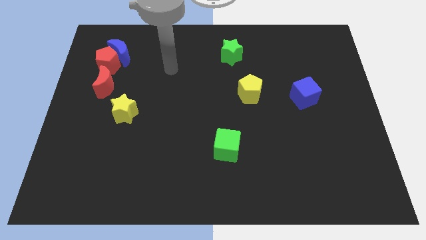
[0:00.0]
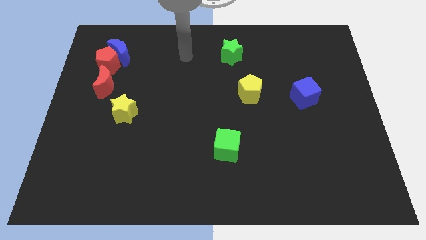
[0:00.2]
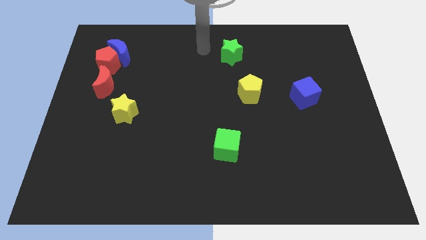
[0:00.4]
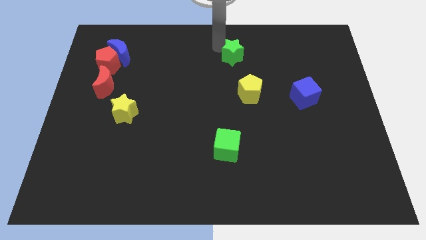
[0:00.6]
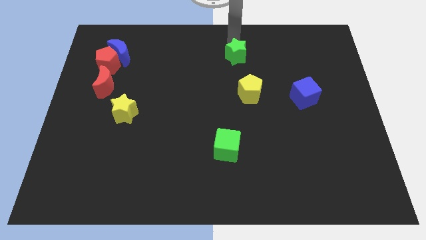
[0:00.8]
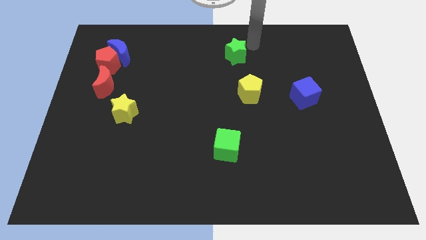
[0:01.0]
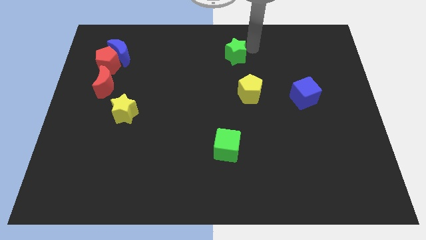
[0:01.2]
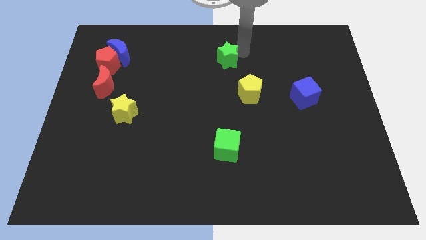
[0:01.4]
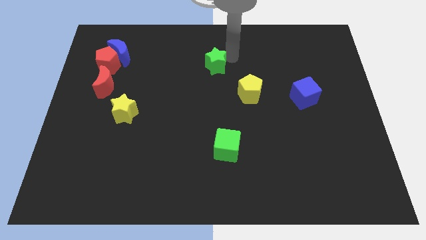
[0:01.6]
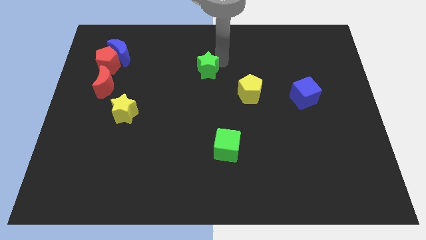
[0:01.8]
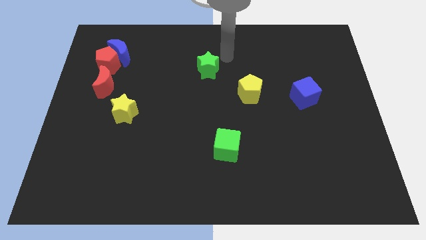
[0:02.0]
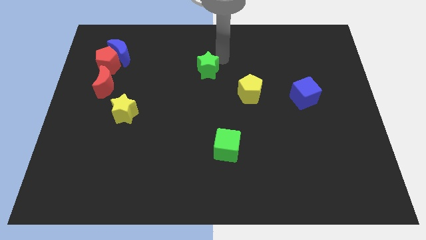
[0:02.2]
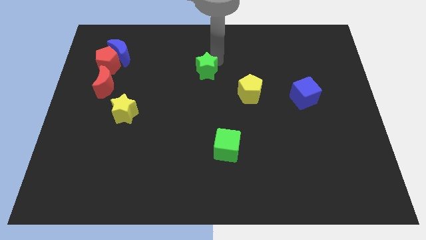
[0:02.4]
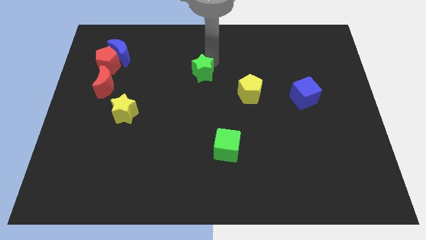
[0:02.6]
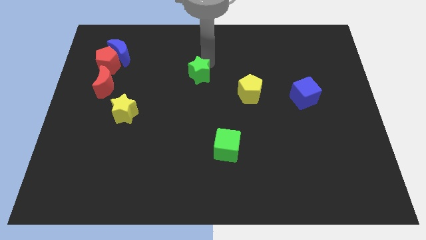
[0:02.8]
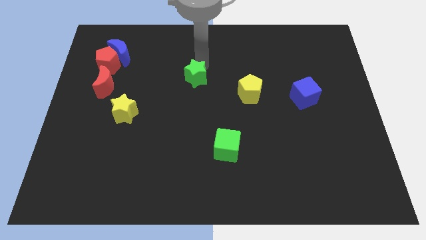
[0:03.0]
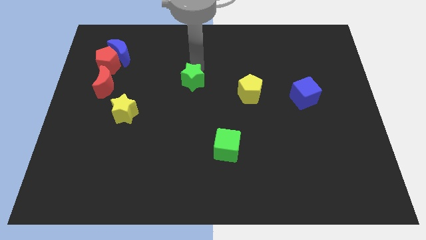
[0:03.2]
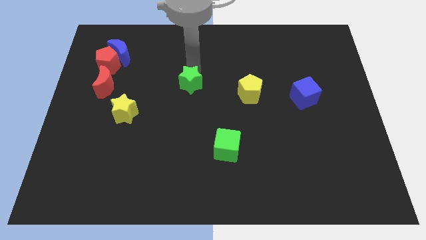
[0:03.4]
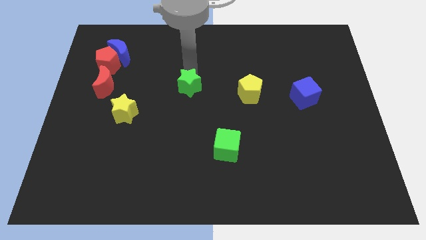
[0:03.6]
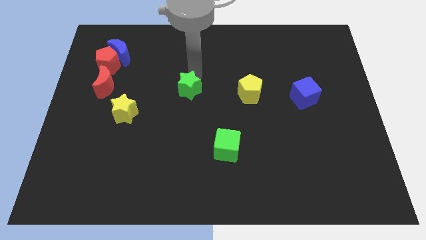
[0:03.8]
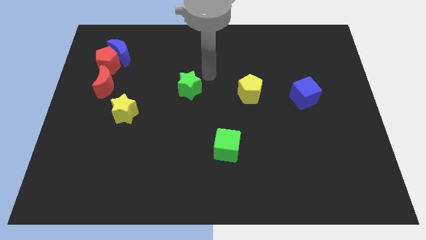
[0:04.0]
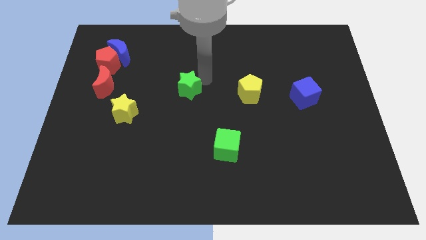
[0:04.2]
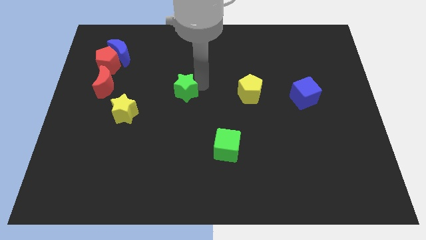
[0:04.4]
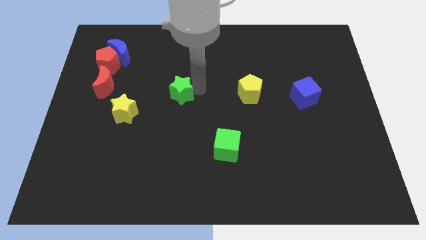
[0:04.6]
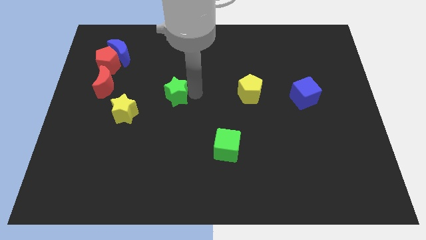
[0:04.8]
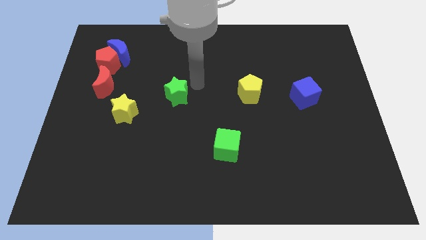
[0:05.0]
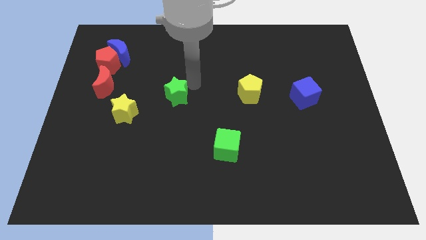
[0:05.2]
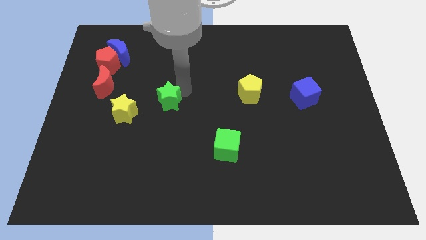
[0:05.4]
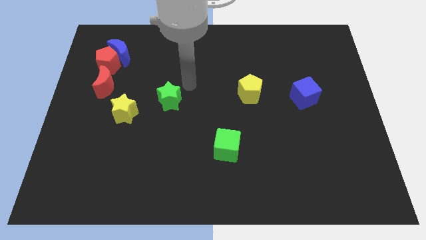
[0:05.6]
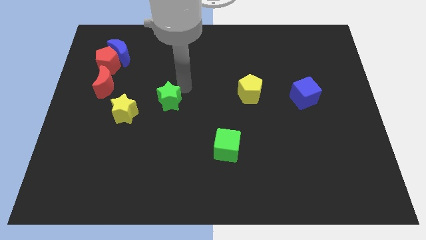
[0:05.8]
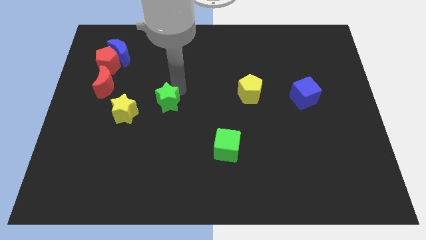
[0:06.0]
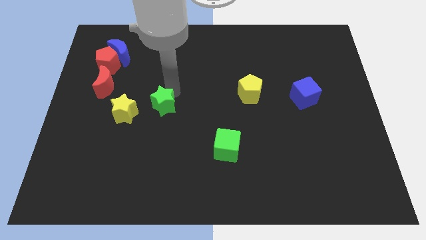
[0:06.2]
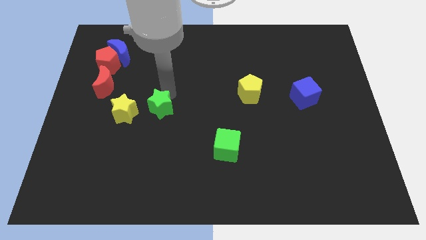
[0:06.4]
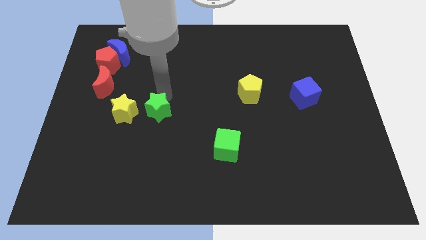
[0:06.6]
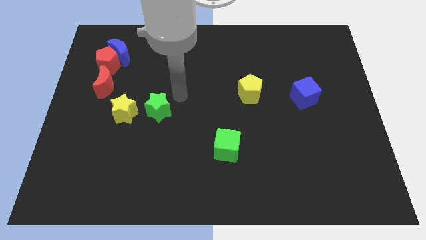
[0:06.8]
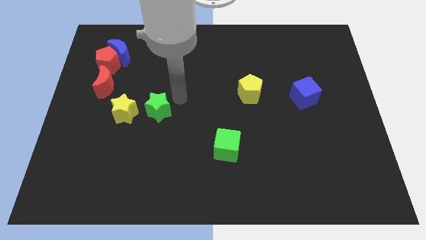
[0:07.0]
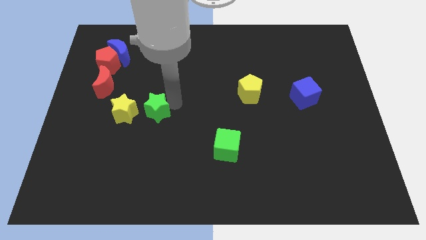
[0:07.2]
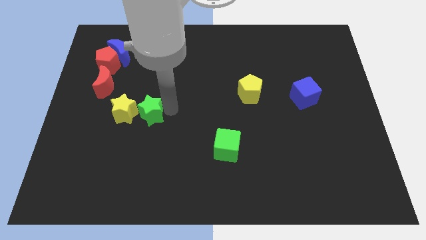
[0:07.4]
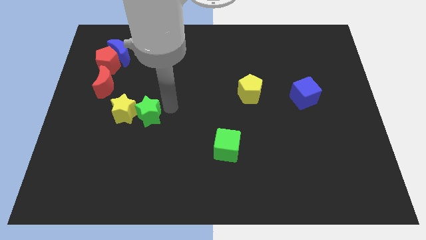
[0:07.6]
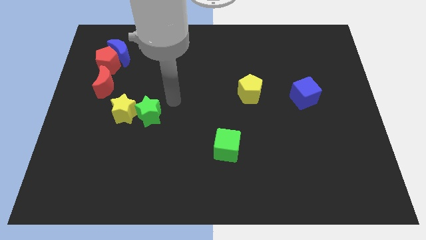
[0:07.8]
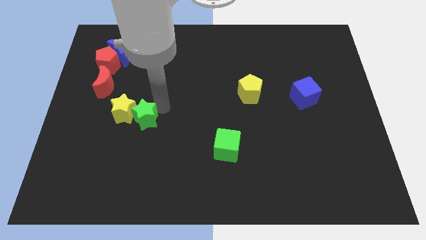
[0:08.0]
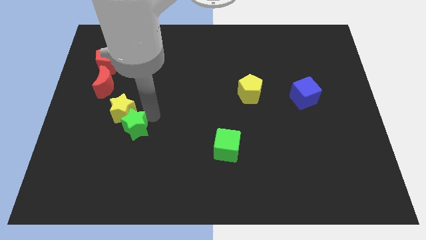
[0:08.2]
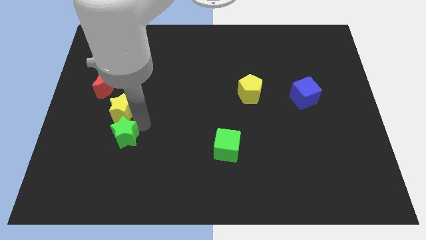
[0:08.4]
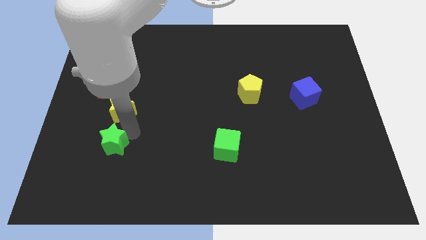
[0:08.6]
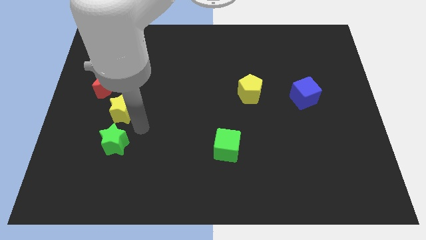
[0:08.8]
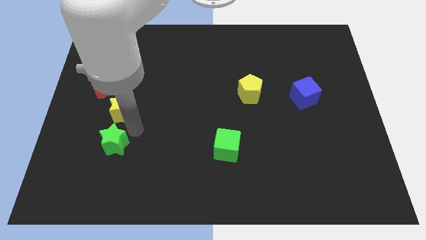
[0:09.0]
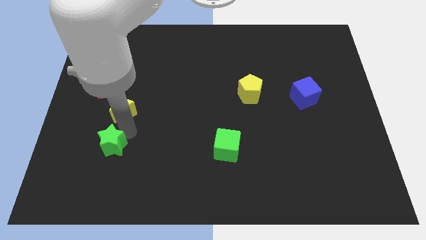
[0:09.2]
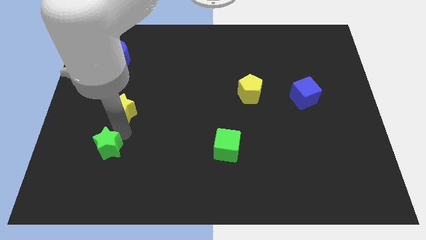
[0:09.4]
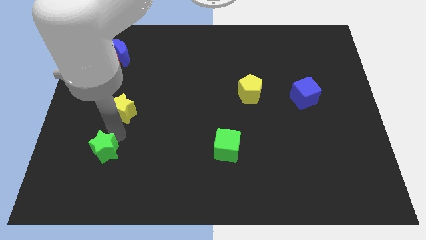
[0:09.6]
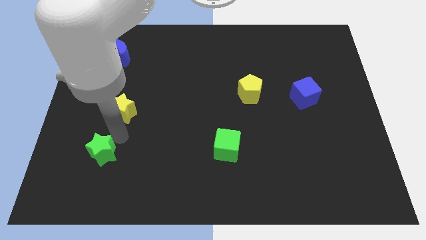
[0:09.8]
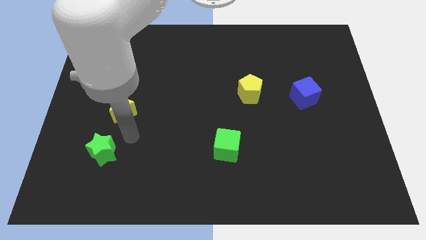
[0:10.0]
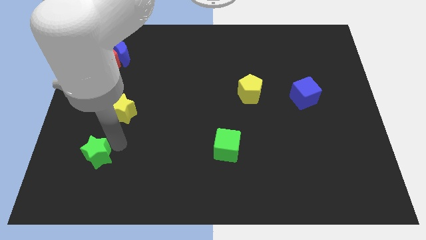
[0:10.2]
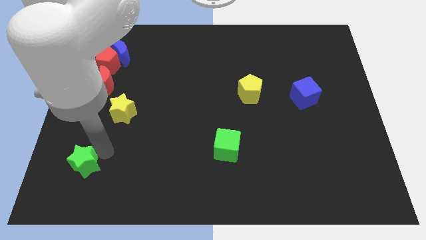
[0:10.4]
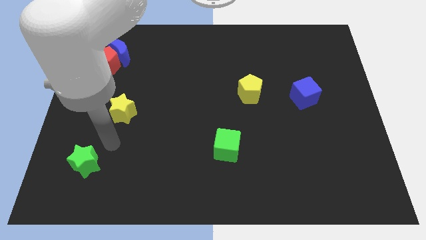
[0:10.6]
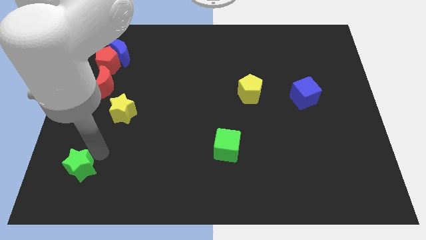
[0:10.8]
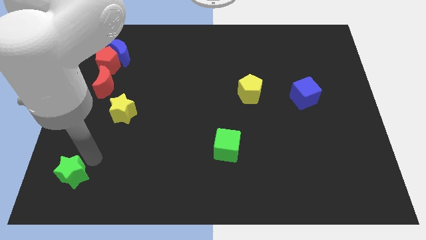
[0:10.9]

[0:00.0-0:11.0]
move the green star to the bottom left of the board
